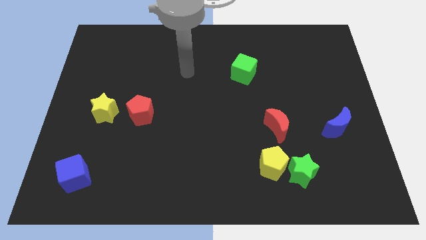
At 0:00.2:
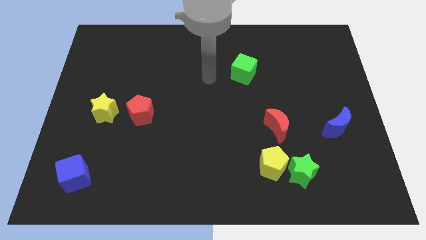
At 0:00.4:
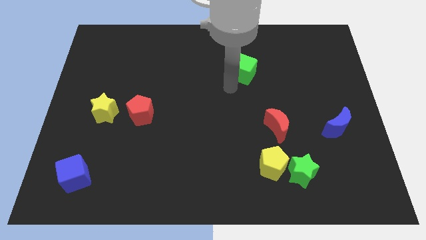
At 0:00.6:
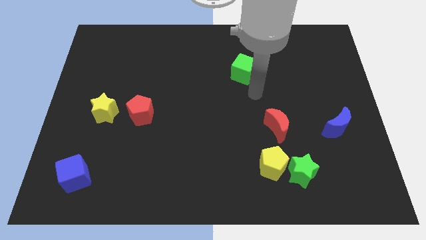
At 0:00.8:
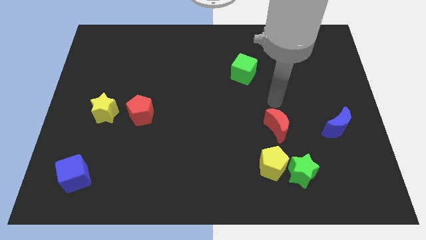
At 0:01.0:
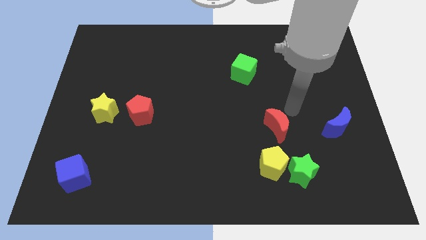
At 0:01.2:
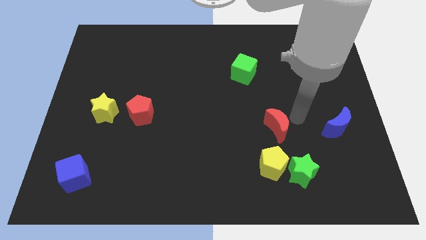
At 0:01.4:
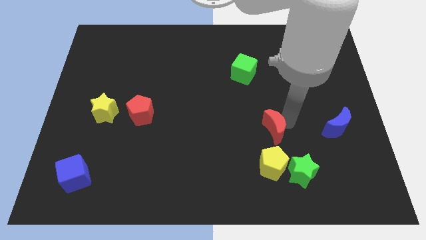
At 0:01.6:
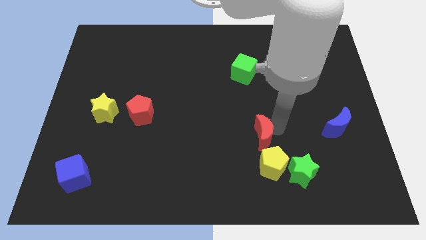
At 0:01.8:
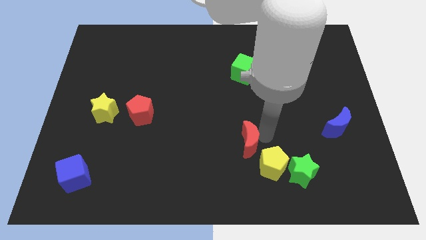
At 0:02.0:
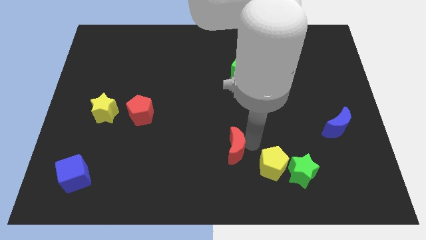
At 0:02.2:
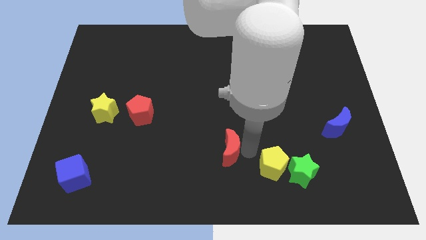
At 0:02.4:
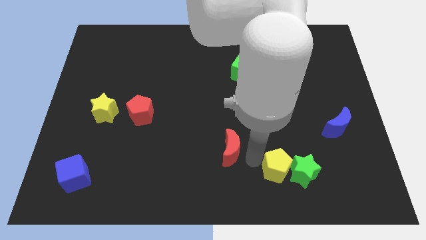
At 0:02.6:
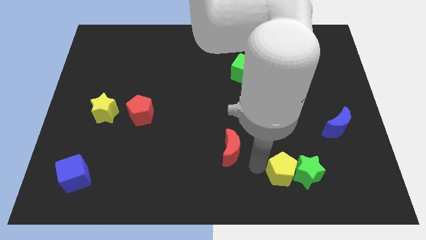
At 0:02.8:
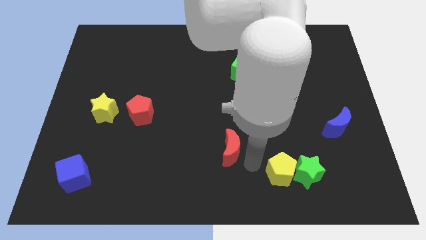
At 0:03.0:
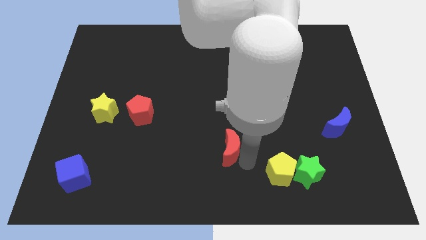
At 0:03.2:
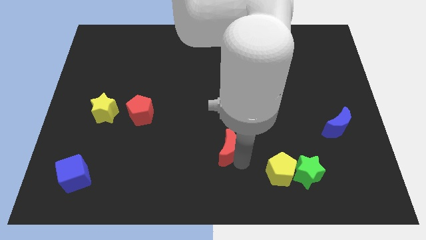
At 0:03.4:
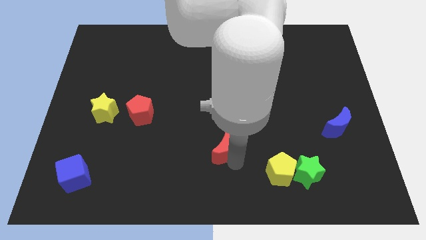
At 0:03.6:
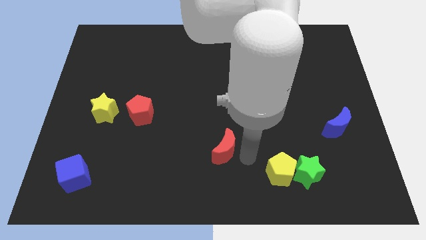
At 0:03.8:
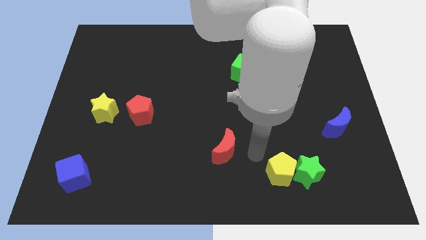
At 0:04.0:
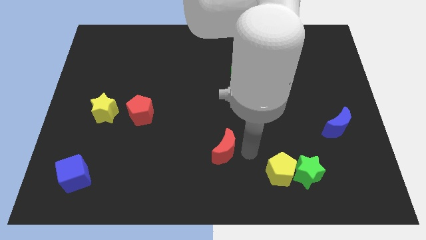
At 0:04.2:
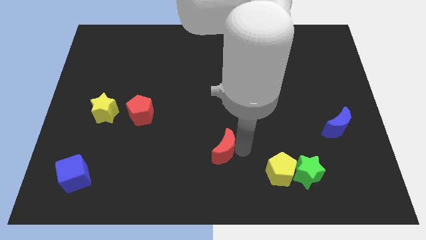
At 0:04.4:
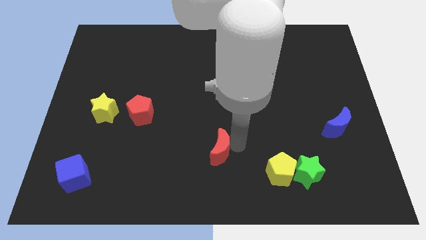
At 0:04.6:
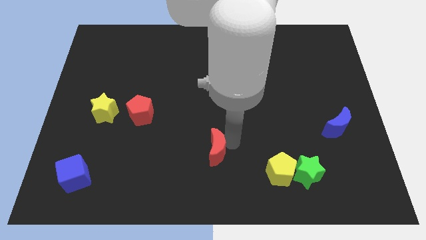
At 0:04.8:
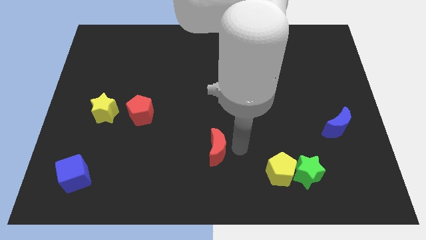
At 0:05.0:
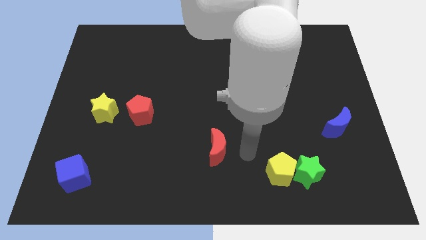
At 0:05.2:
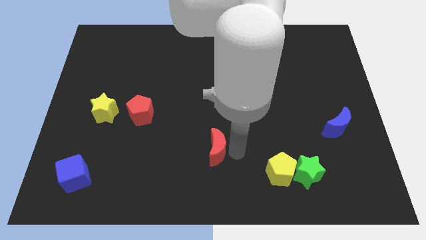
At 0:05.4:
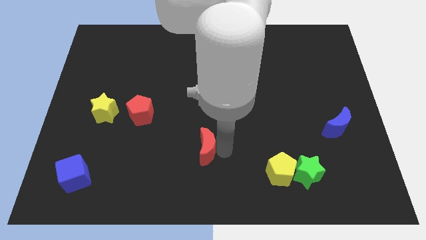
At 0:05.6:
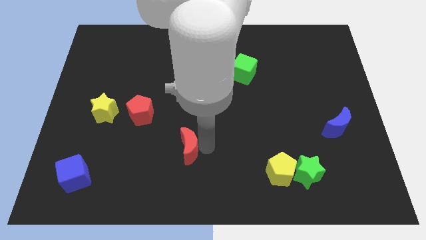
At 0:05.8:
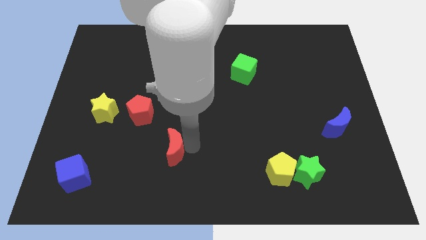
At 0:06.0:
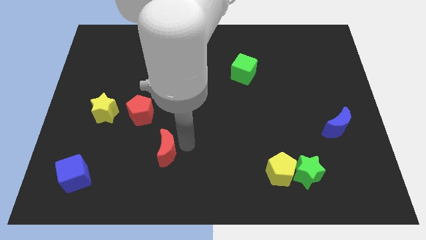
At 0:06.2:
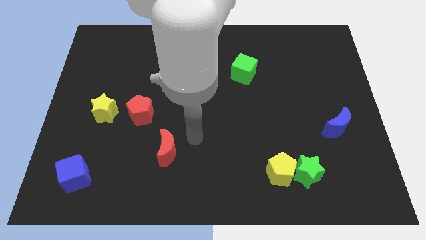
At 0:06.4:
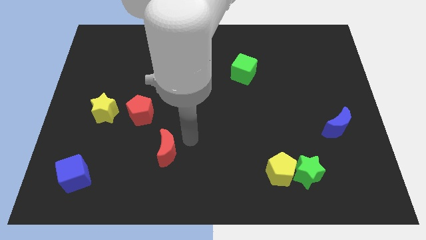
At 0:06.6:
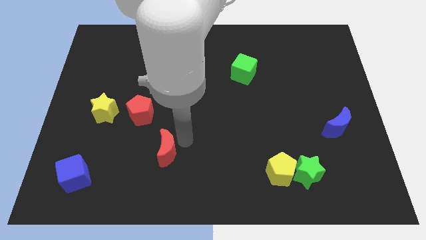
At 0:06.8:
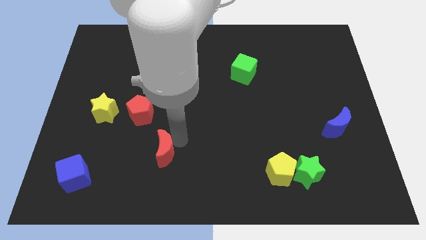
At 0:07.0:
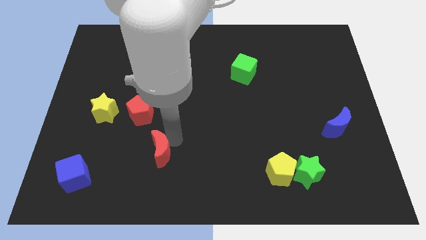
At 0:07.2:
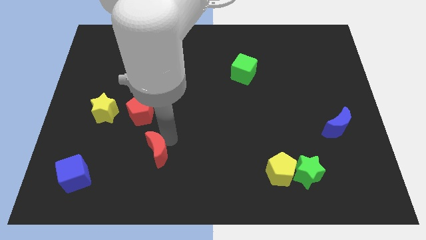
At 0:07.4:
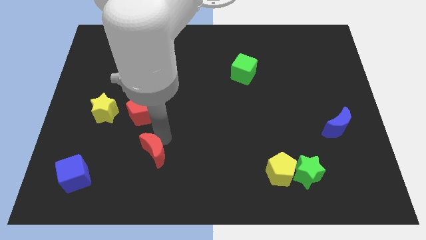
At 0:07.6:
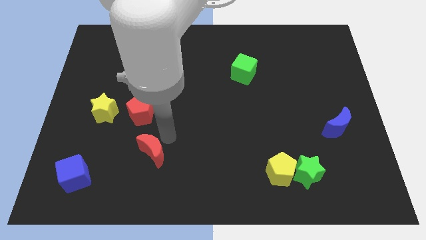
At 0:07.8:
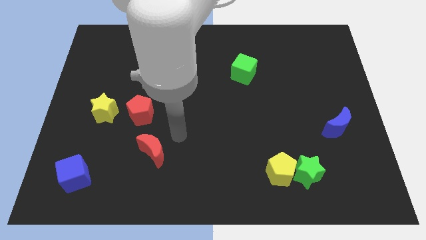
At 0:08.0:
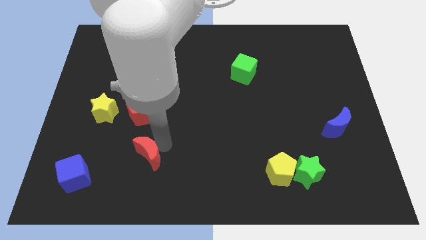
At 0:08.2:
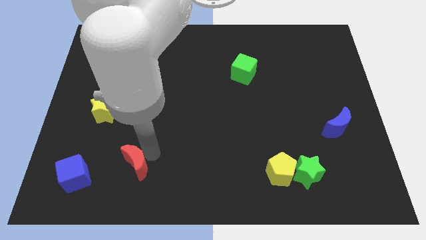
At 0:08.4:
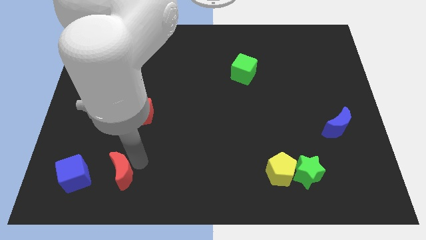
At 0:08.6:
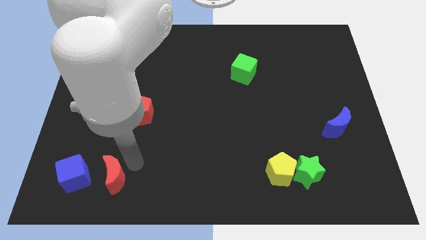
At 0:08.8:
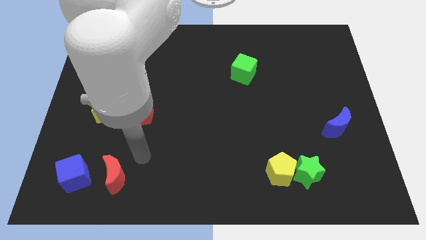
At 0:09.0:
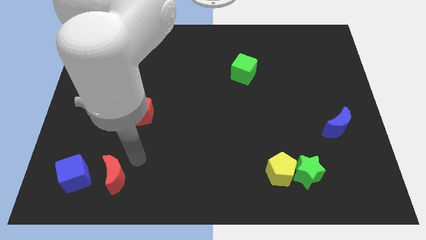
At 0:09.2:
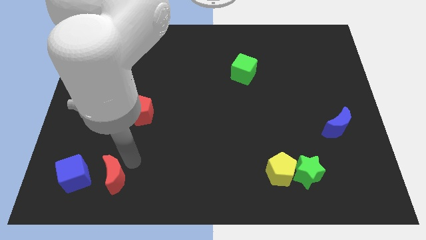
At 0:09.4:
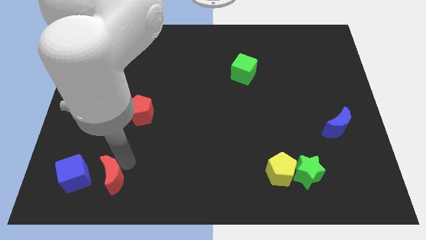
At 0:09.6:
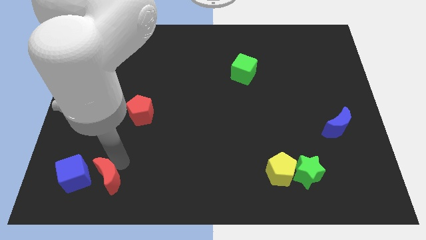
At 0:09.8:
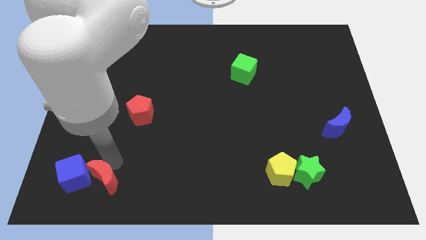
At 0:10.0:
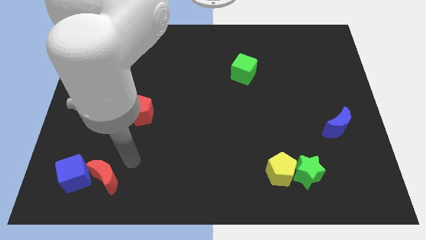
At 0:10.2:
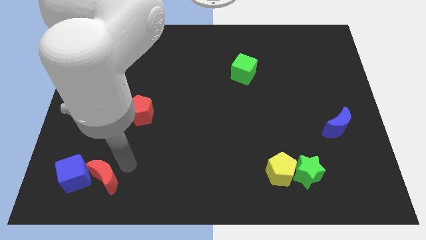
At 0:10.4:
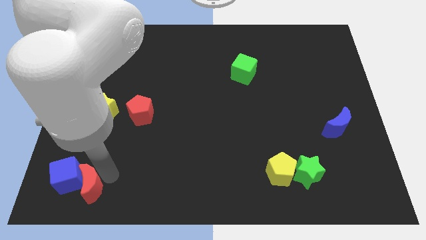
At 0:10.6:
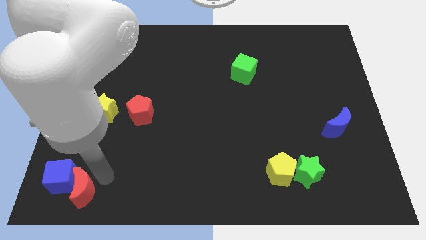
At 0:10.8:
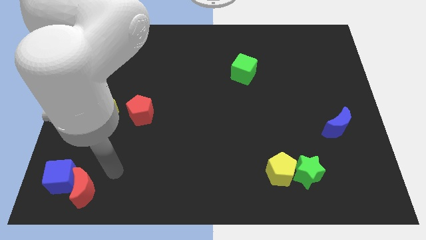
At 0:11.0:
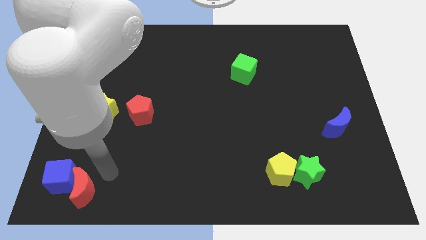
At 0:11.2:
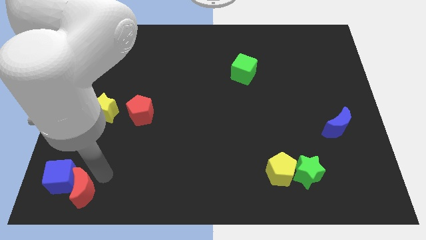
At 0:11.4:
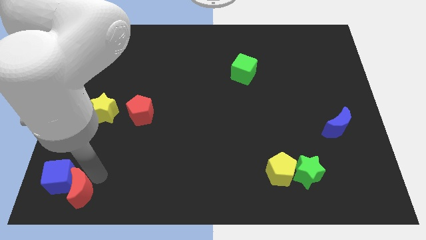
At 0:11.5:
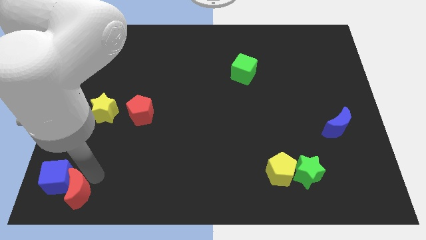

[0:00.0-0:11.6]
slide the red moon to the bottom left
